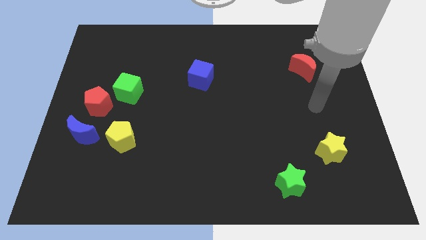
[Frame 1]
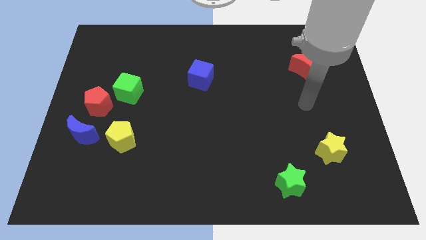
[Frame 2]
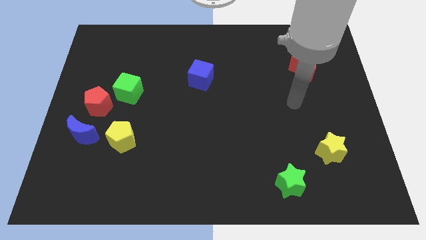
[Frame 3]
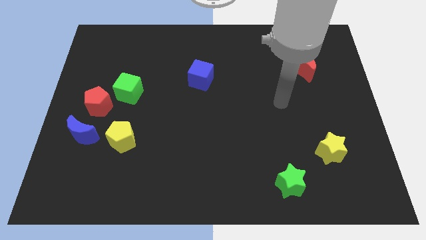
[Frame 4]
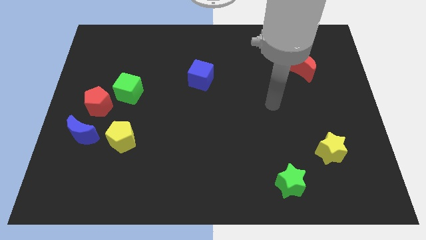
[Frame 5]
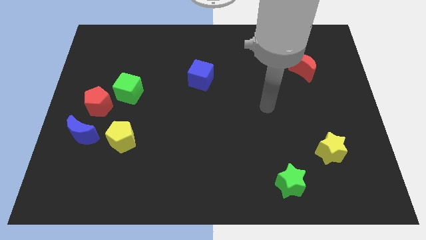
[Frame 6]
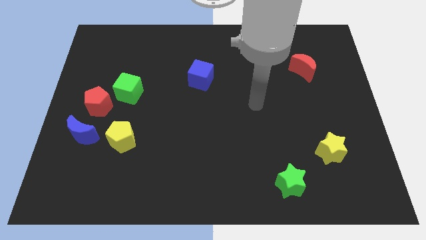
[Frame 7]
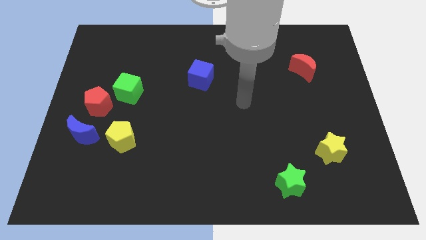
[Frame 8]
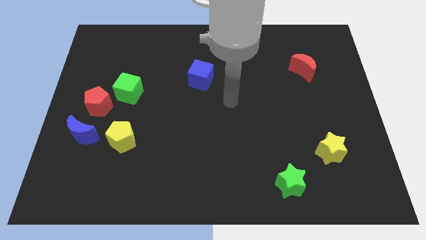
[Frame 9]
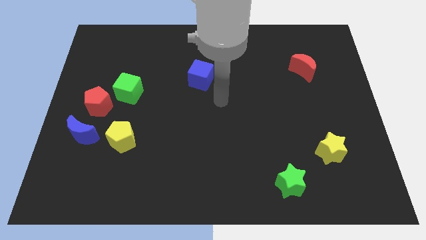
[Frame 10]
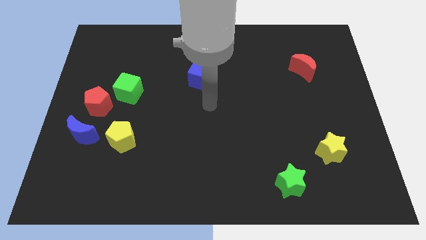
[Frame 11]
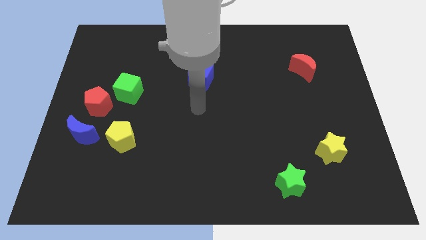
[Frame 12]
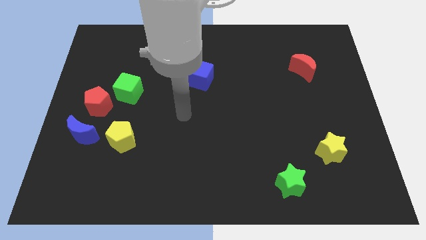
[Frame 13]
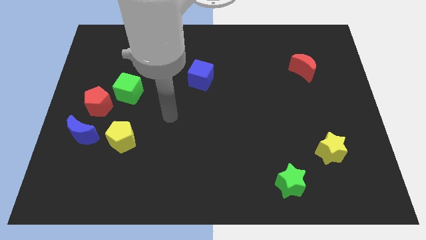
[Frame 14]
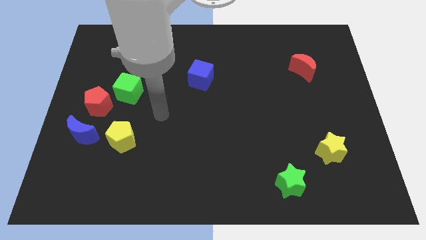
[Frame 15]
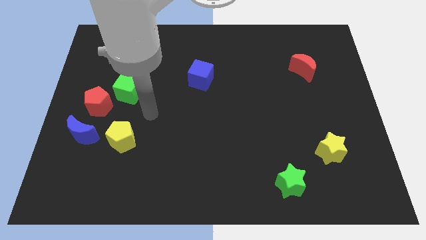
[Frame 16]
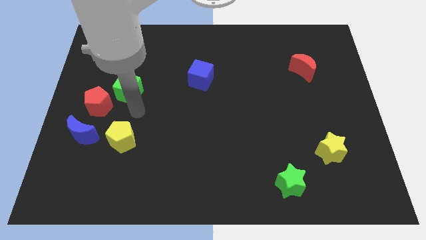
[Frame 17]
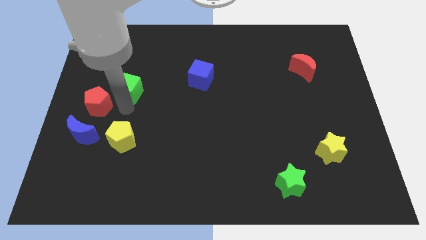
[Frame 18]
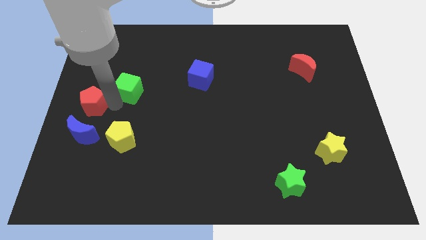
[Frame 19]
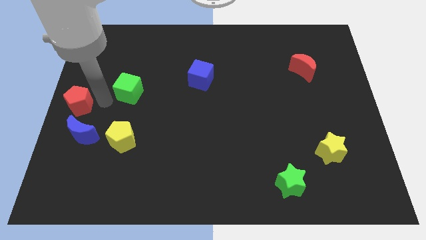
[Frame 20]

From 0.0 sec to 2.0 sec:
move the green cube away from the red pentagon

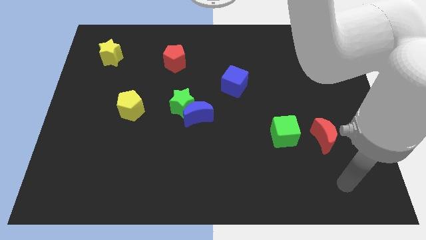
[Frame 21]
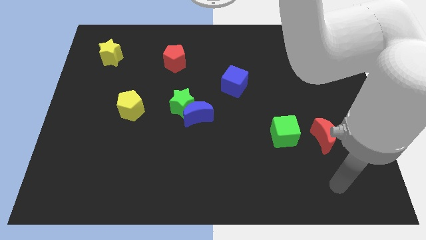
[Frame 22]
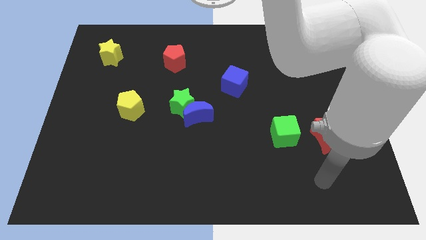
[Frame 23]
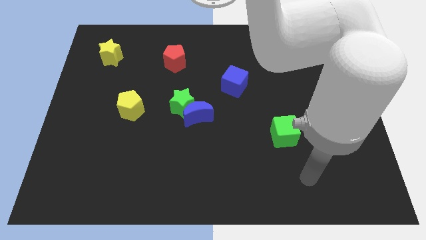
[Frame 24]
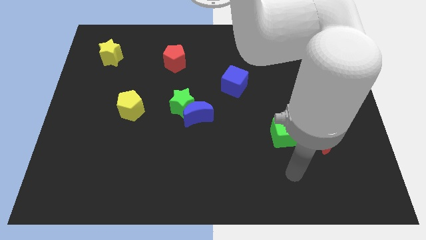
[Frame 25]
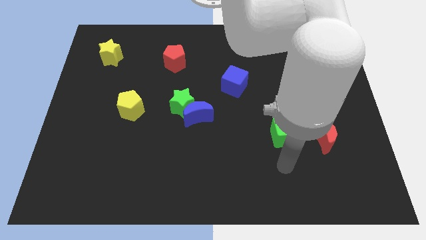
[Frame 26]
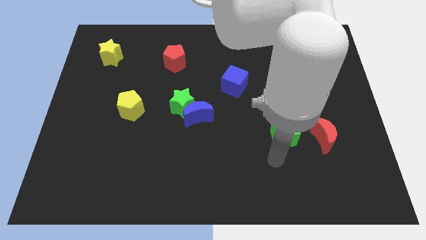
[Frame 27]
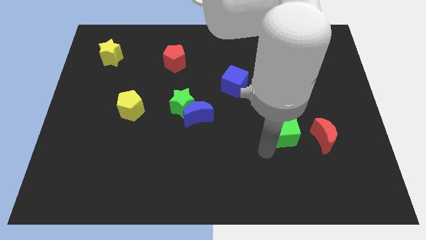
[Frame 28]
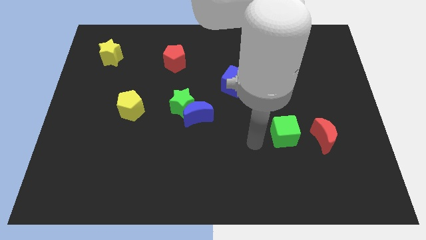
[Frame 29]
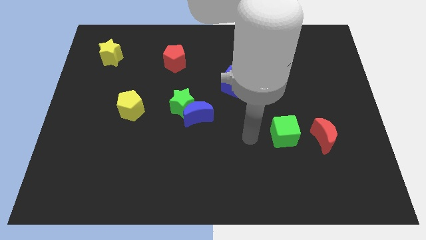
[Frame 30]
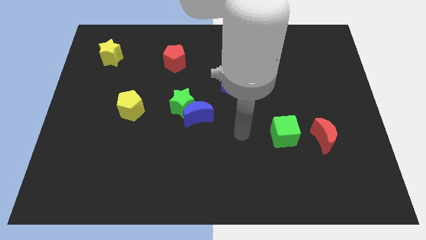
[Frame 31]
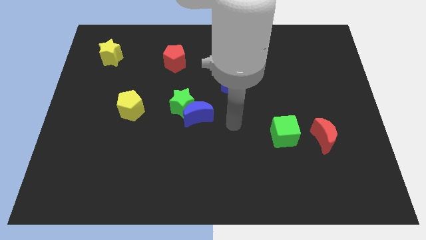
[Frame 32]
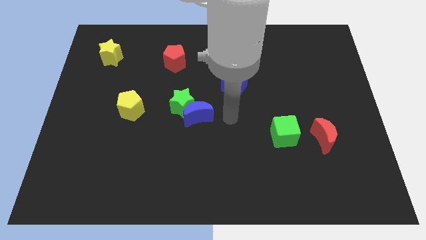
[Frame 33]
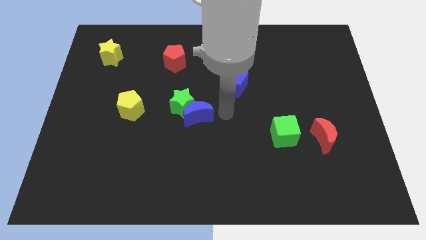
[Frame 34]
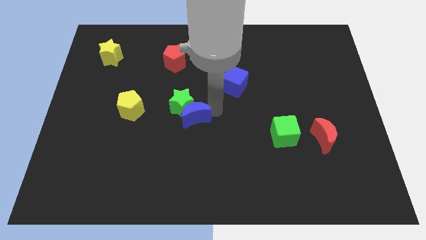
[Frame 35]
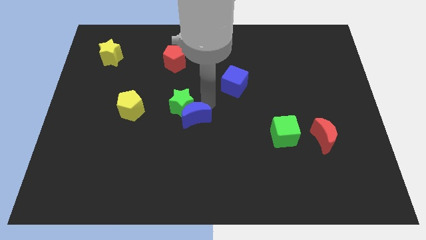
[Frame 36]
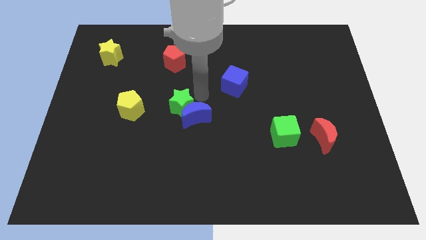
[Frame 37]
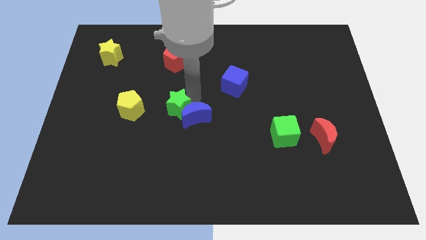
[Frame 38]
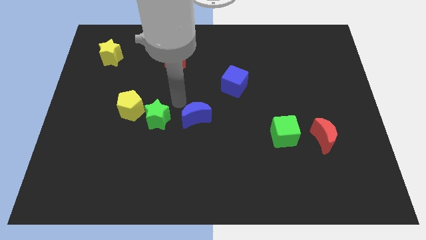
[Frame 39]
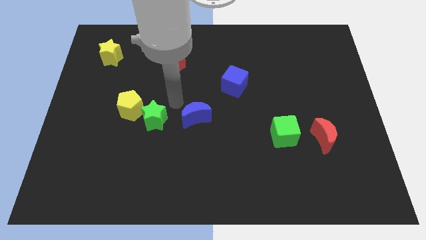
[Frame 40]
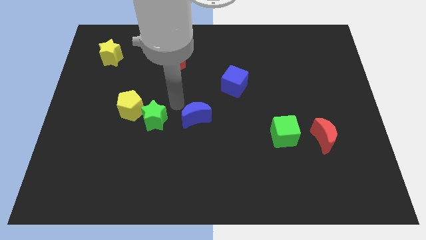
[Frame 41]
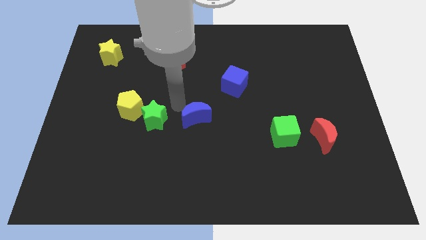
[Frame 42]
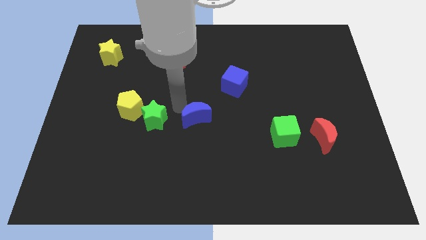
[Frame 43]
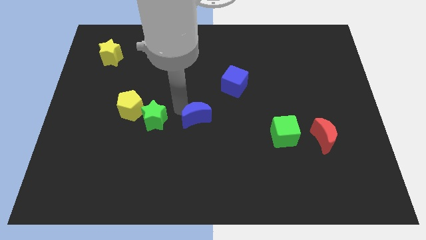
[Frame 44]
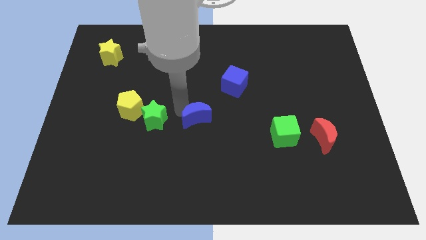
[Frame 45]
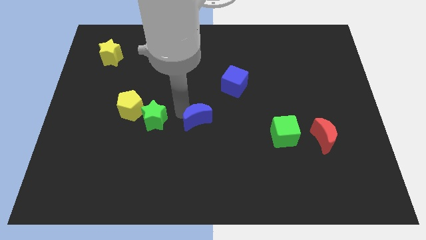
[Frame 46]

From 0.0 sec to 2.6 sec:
pull the blue moon apart from the green star

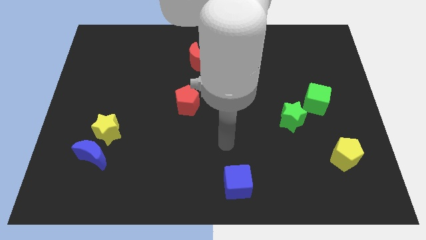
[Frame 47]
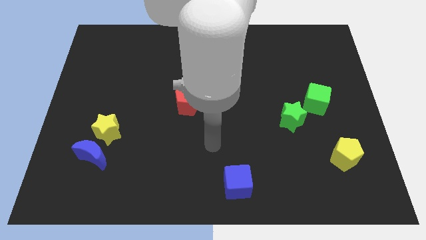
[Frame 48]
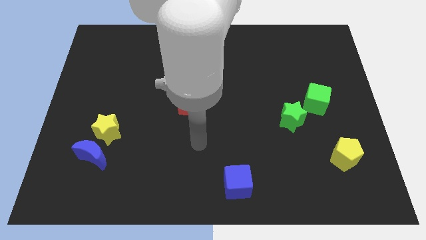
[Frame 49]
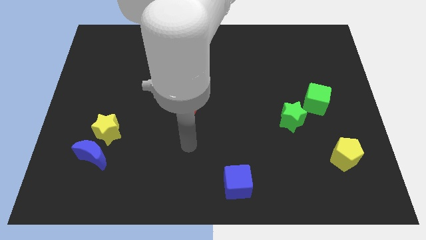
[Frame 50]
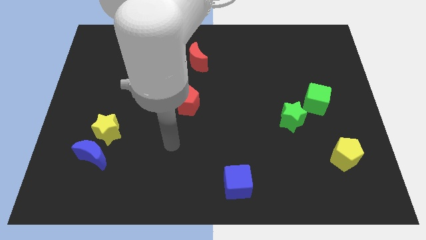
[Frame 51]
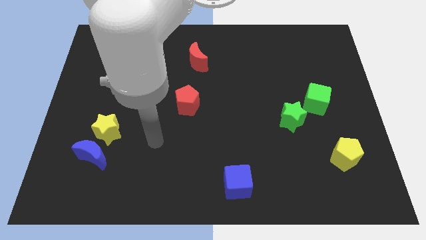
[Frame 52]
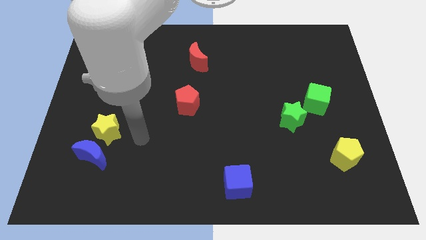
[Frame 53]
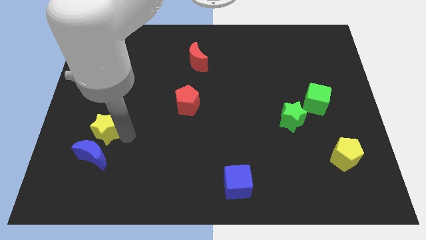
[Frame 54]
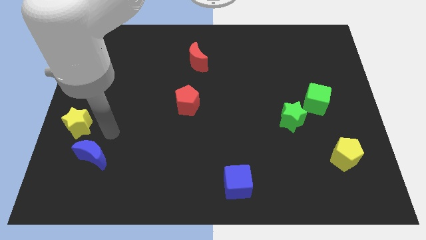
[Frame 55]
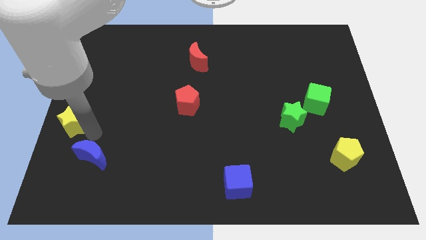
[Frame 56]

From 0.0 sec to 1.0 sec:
move the blue moon away from the yellow star

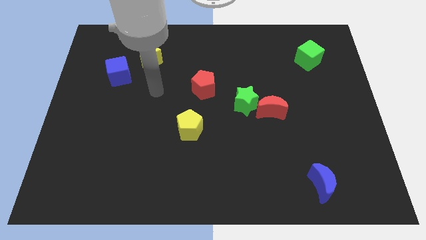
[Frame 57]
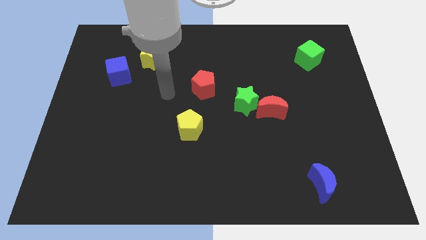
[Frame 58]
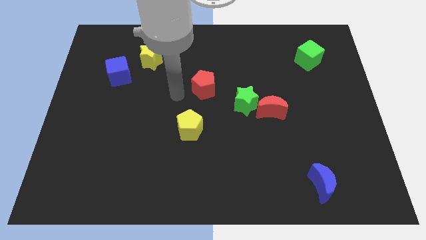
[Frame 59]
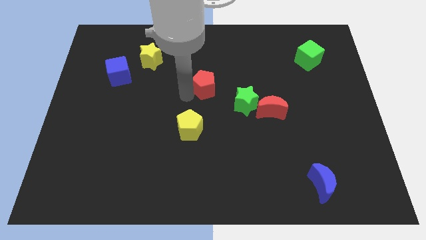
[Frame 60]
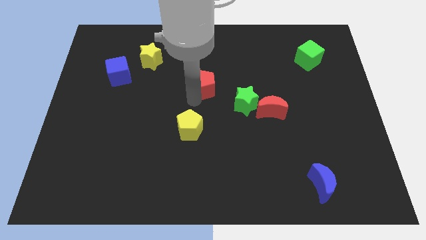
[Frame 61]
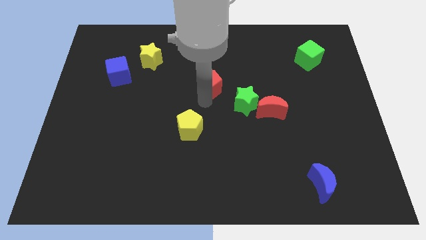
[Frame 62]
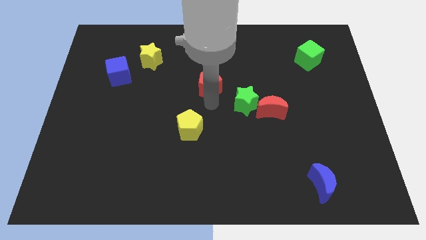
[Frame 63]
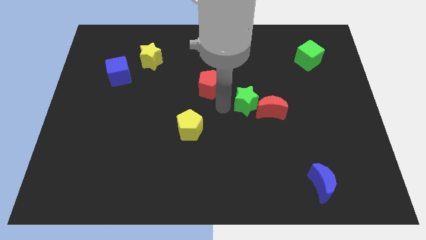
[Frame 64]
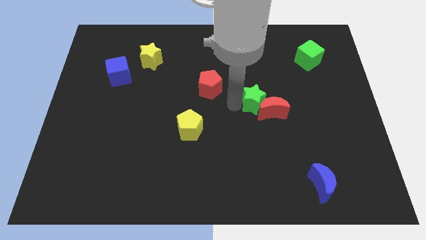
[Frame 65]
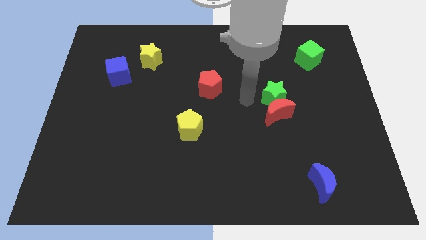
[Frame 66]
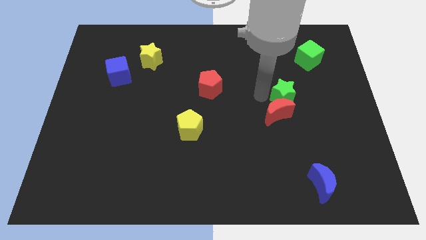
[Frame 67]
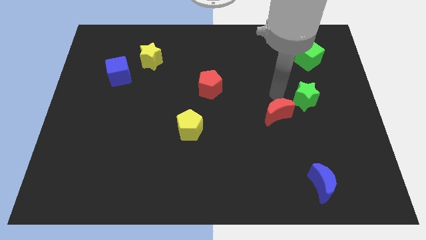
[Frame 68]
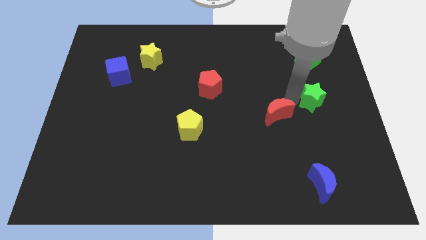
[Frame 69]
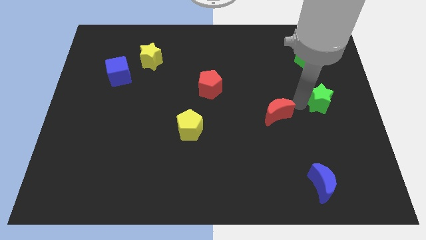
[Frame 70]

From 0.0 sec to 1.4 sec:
move the red moon away from the green star

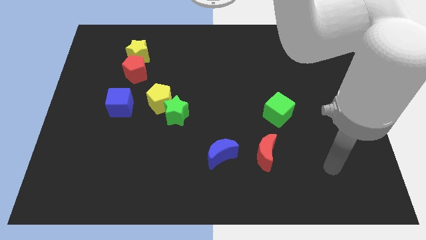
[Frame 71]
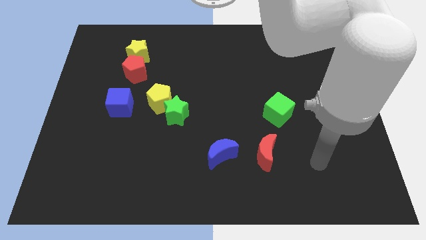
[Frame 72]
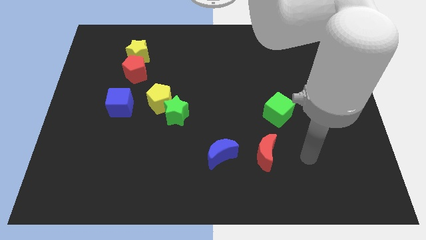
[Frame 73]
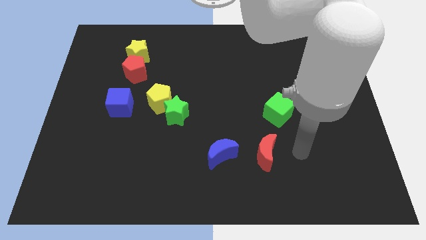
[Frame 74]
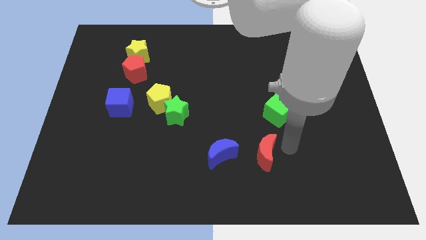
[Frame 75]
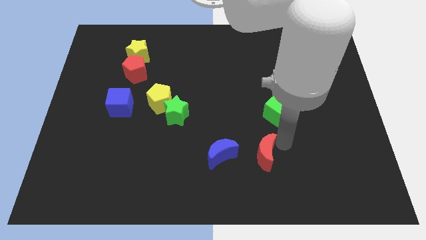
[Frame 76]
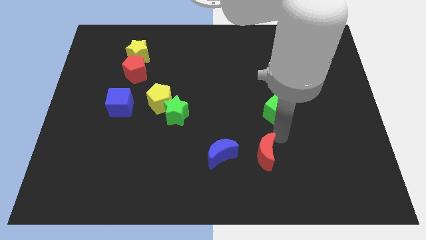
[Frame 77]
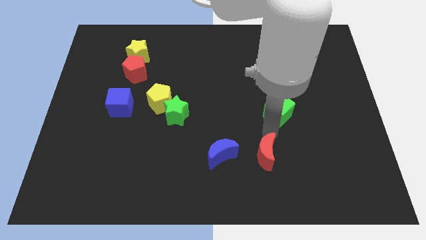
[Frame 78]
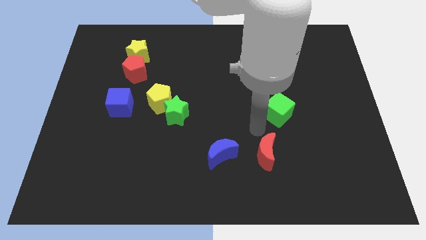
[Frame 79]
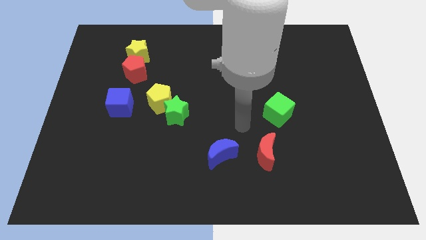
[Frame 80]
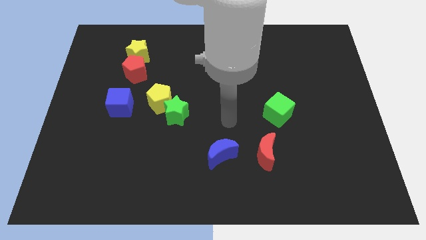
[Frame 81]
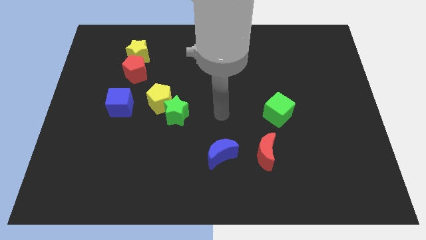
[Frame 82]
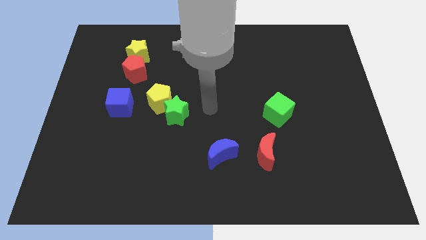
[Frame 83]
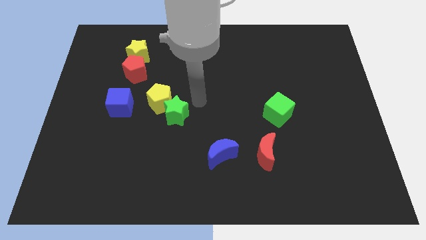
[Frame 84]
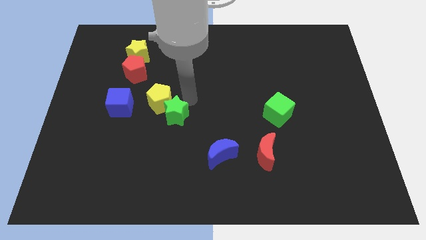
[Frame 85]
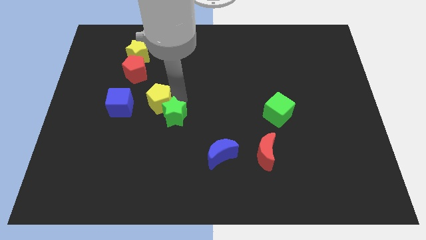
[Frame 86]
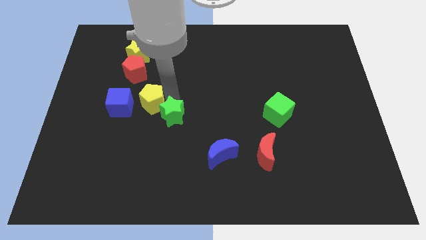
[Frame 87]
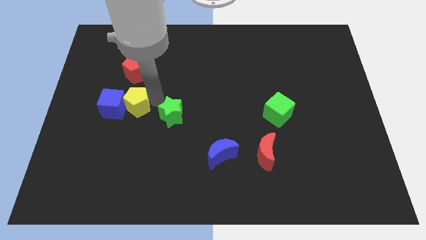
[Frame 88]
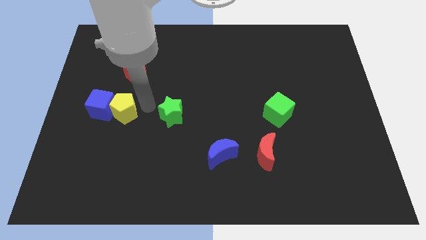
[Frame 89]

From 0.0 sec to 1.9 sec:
pull the green star apart from the yellow pentagon

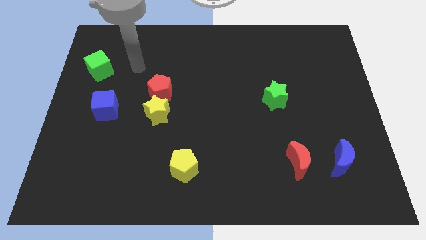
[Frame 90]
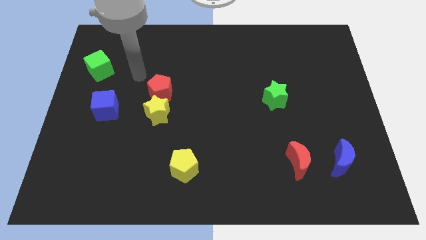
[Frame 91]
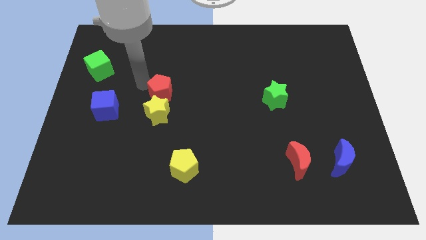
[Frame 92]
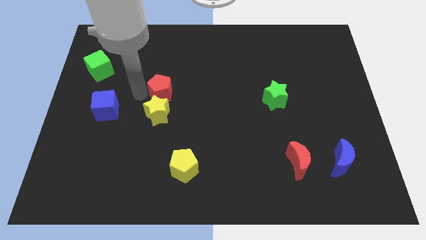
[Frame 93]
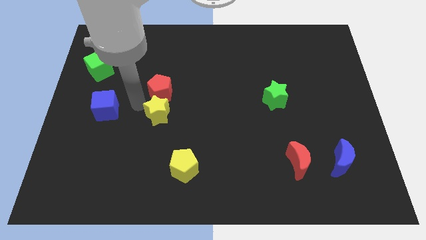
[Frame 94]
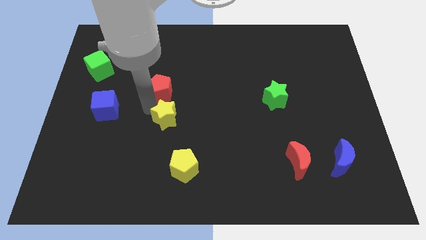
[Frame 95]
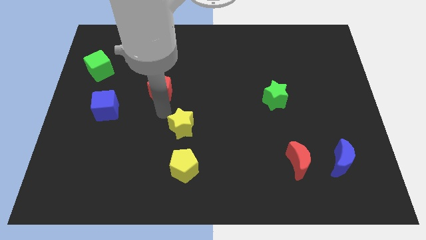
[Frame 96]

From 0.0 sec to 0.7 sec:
pull the red pentagon apart from the yellow star
